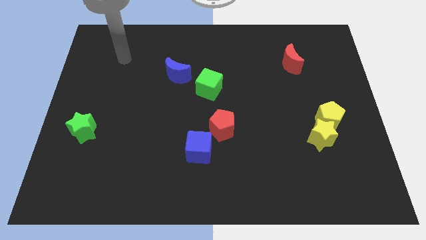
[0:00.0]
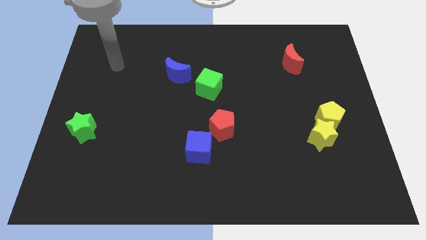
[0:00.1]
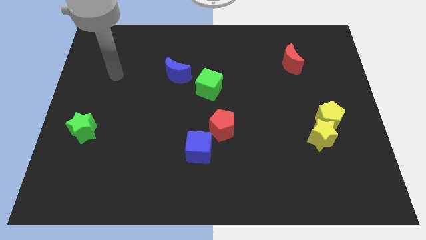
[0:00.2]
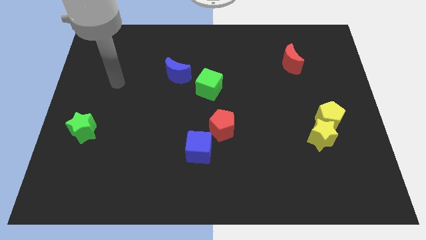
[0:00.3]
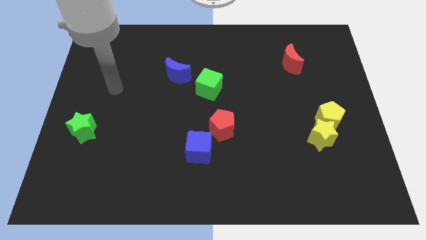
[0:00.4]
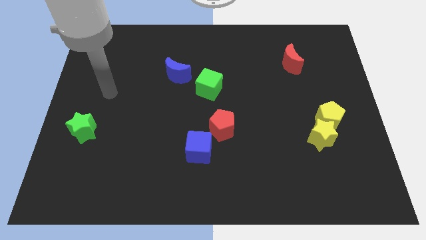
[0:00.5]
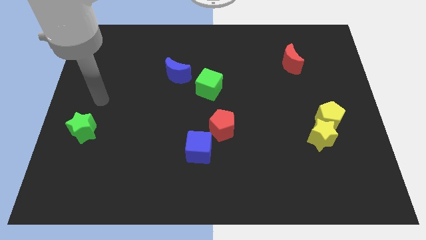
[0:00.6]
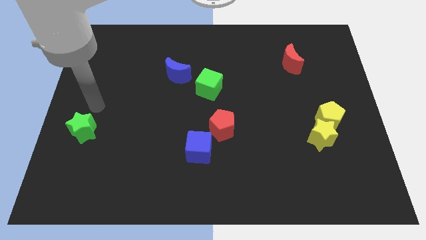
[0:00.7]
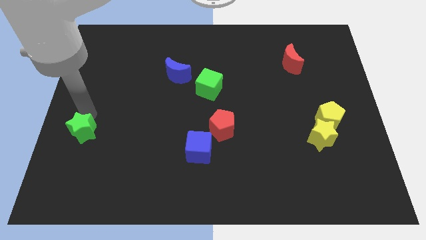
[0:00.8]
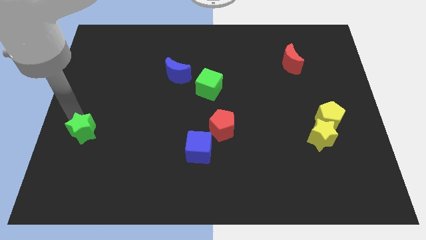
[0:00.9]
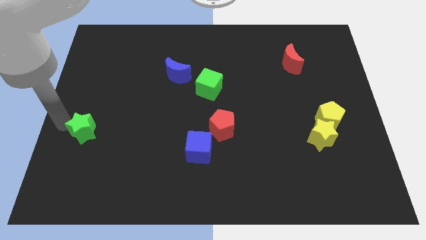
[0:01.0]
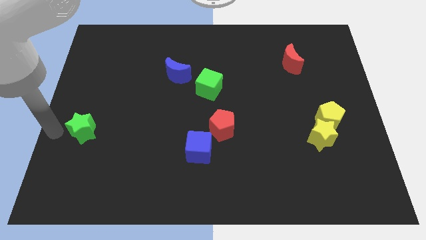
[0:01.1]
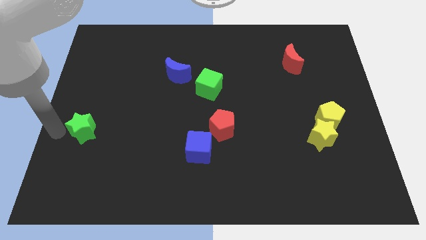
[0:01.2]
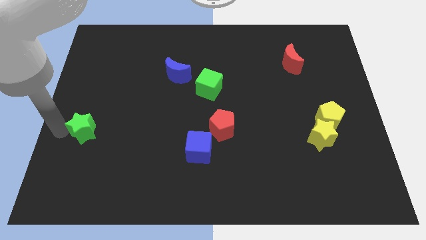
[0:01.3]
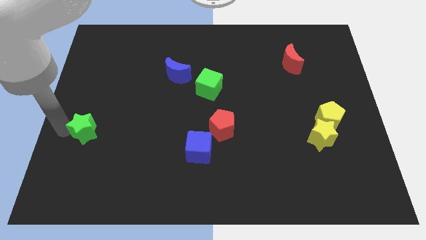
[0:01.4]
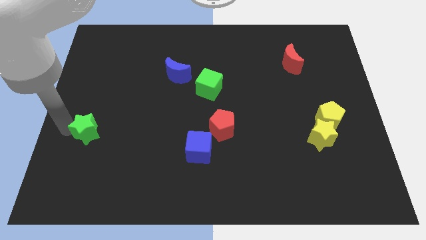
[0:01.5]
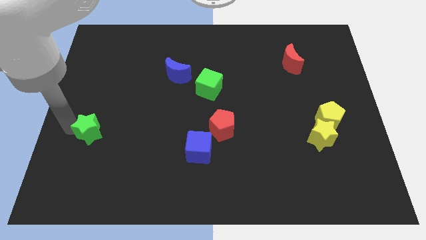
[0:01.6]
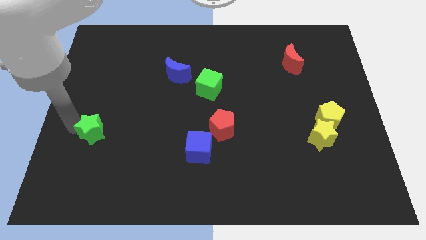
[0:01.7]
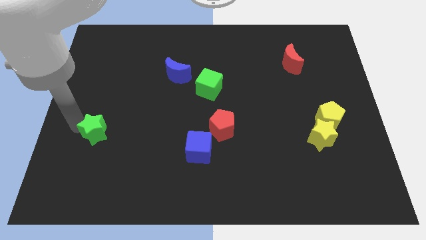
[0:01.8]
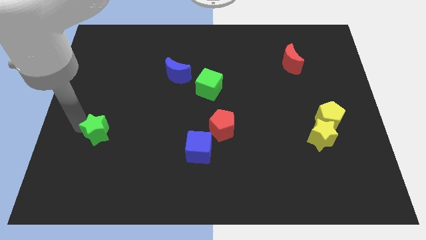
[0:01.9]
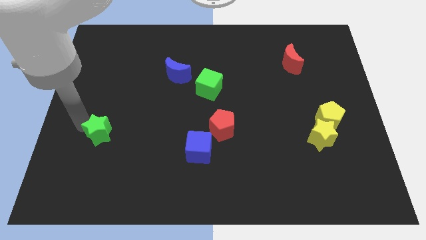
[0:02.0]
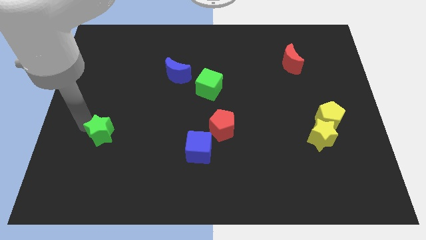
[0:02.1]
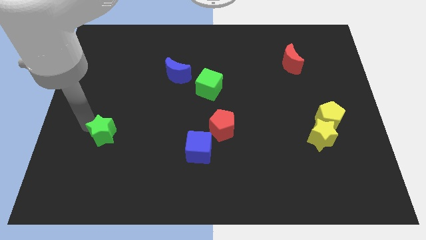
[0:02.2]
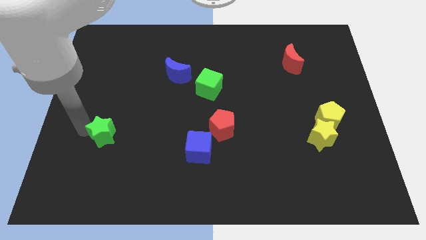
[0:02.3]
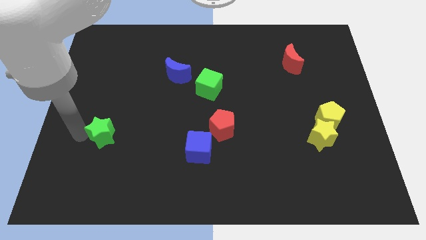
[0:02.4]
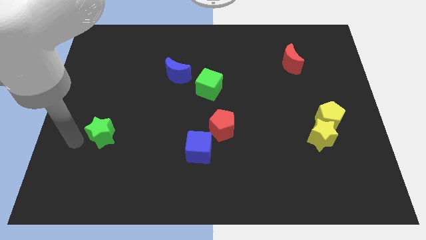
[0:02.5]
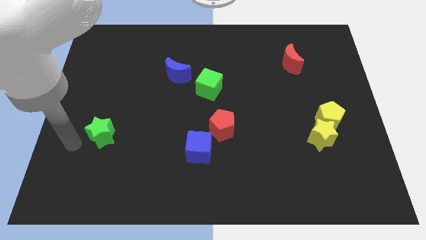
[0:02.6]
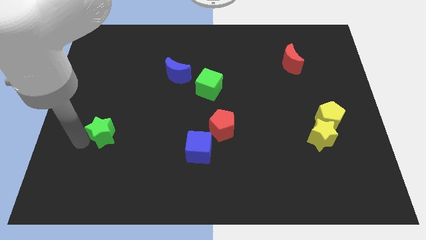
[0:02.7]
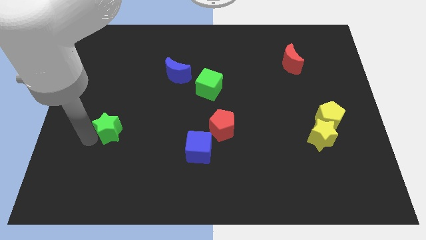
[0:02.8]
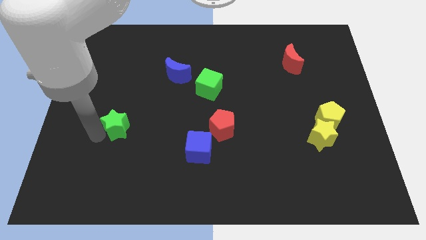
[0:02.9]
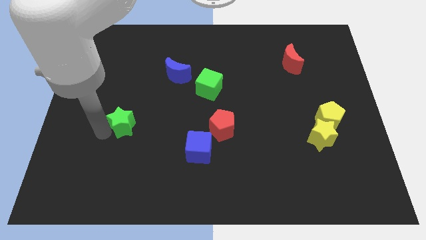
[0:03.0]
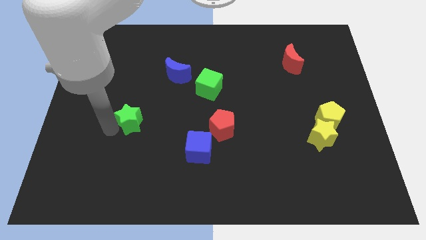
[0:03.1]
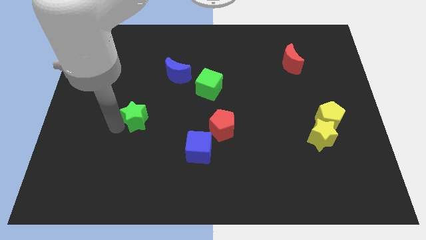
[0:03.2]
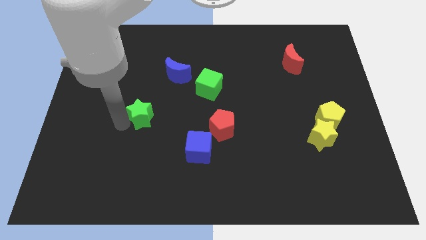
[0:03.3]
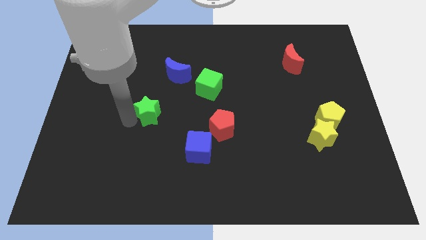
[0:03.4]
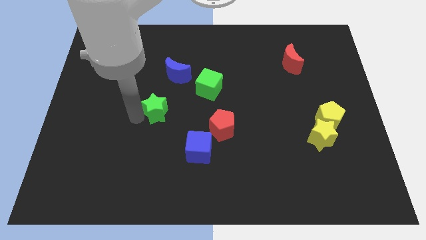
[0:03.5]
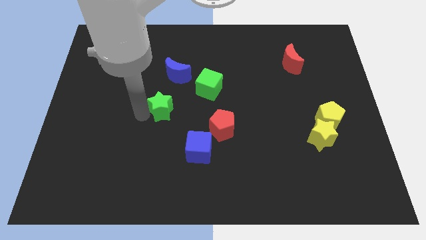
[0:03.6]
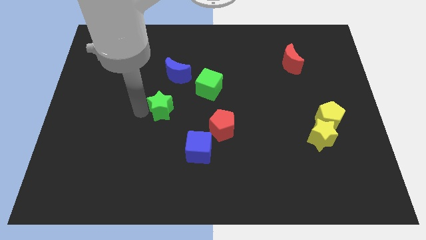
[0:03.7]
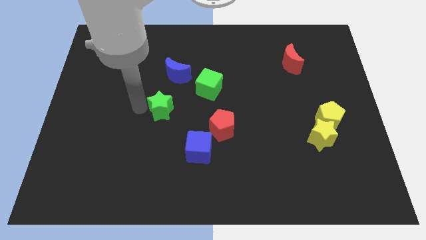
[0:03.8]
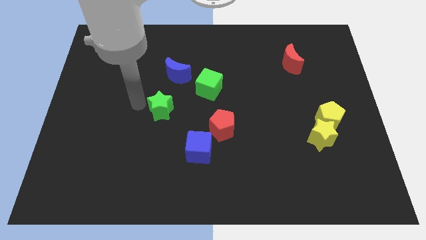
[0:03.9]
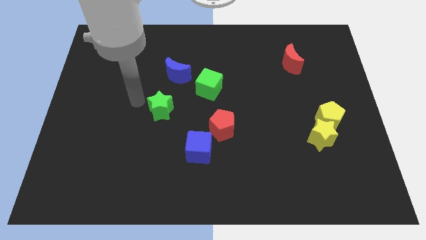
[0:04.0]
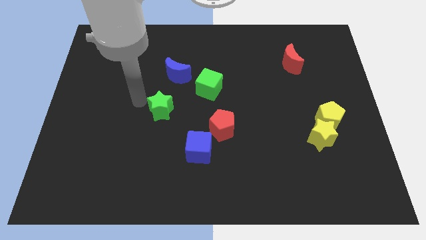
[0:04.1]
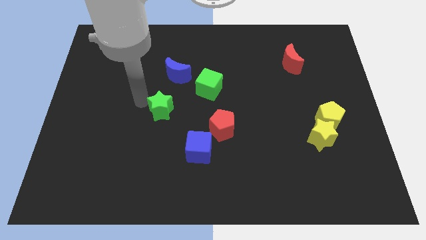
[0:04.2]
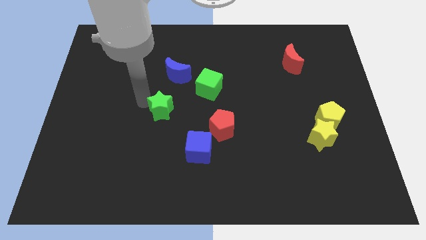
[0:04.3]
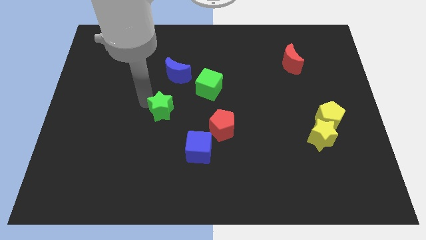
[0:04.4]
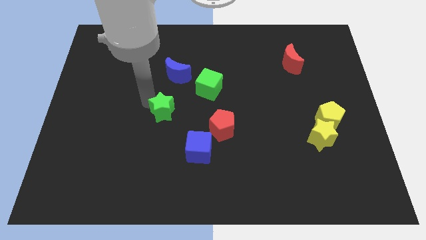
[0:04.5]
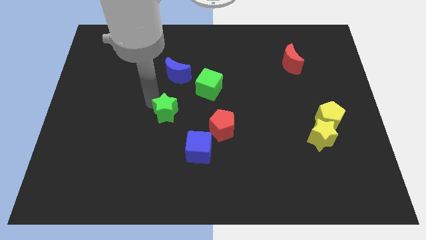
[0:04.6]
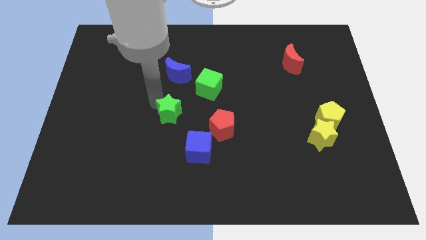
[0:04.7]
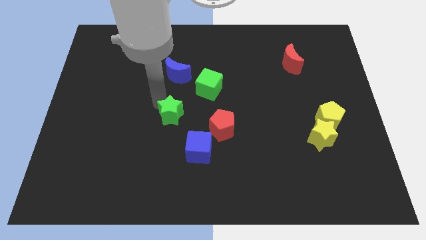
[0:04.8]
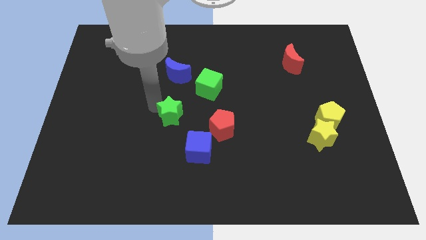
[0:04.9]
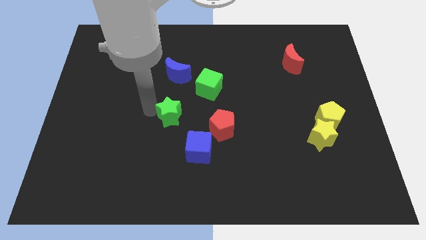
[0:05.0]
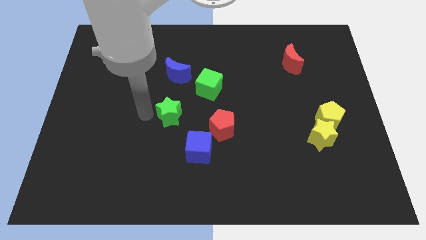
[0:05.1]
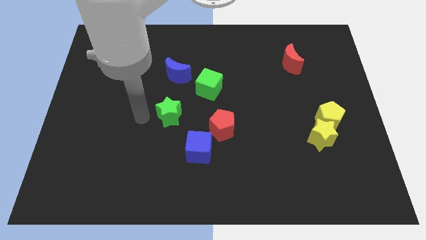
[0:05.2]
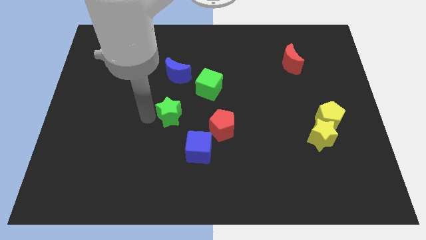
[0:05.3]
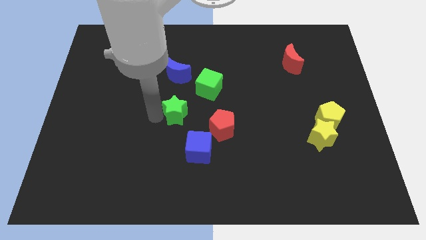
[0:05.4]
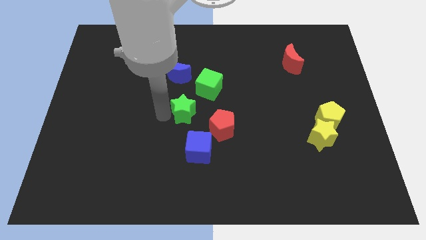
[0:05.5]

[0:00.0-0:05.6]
slide the green star to the top of the blue cube

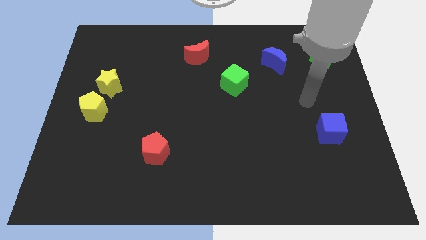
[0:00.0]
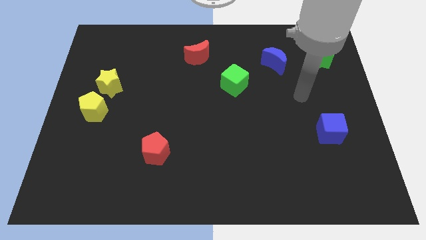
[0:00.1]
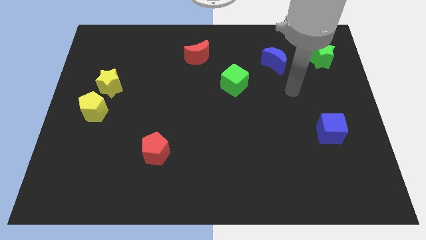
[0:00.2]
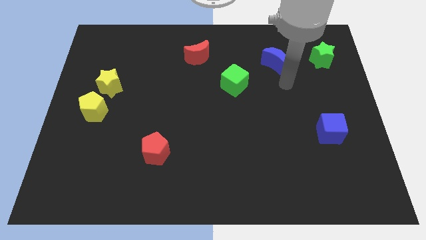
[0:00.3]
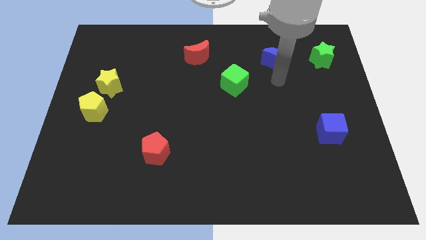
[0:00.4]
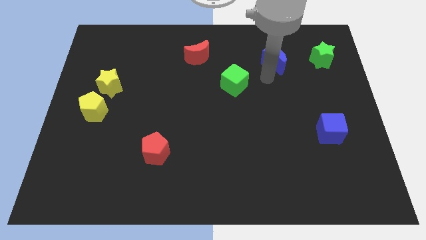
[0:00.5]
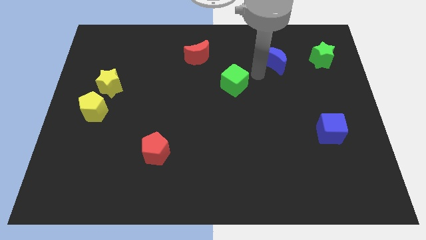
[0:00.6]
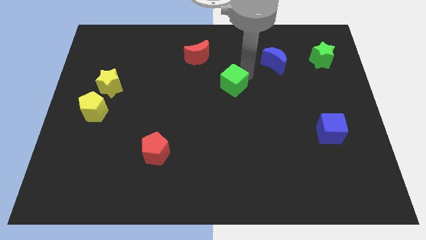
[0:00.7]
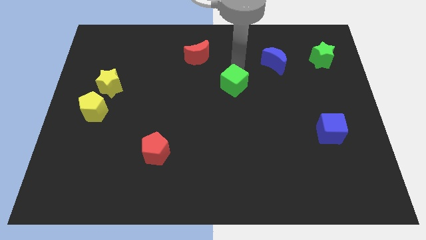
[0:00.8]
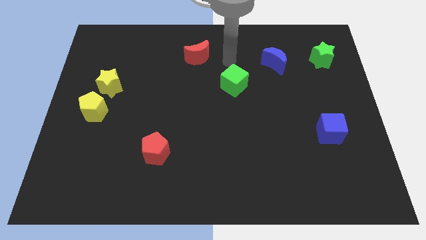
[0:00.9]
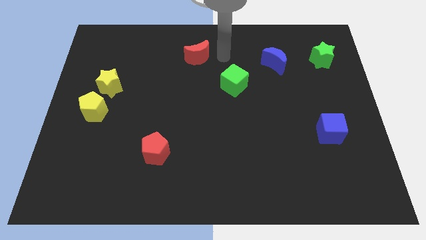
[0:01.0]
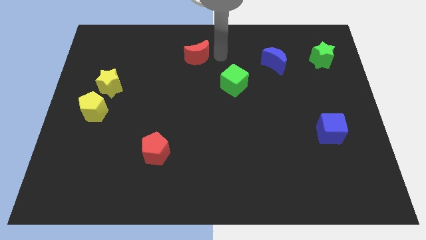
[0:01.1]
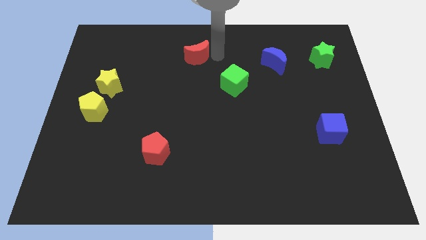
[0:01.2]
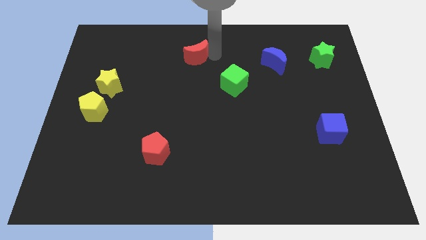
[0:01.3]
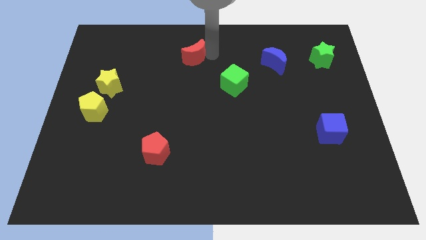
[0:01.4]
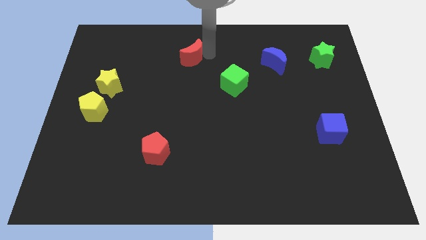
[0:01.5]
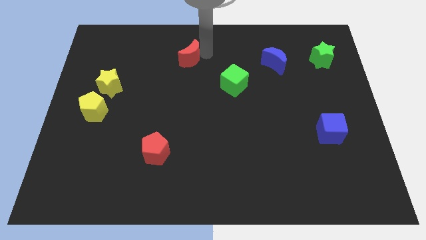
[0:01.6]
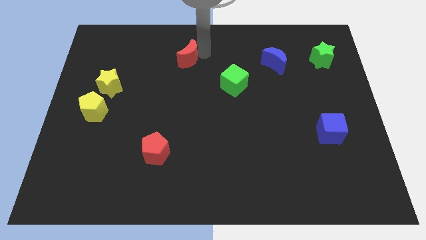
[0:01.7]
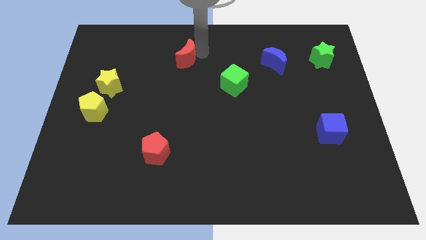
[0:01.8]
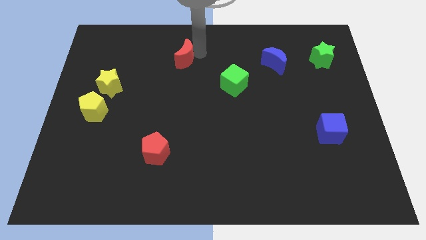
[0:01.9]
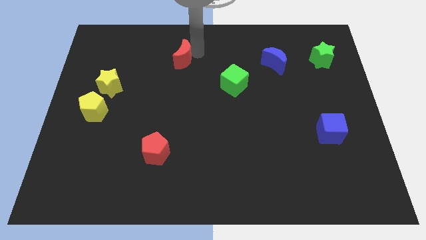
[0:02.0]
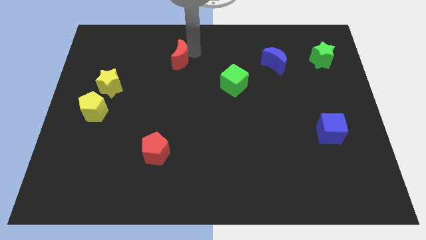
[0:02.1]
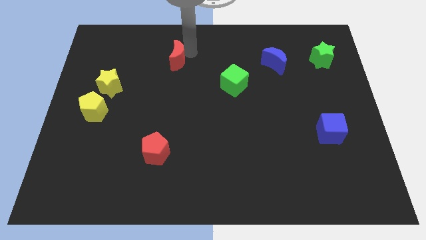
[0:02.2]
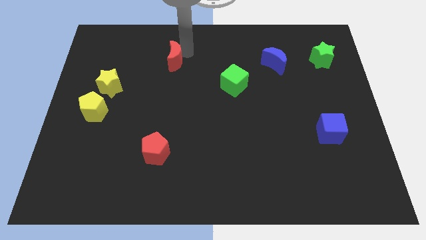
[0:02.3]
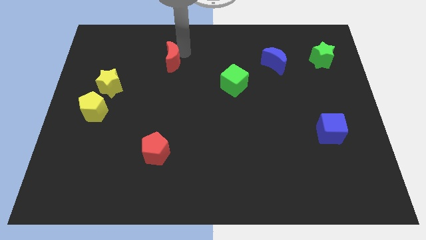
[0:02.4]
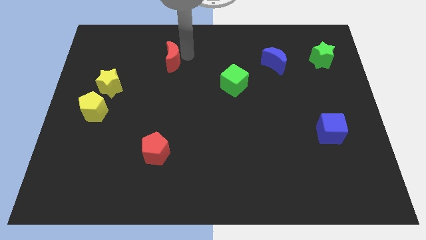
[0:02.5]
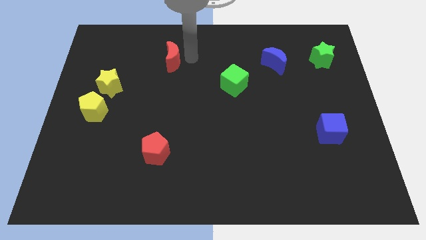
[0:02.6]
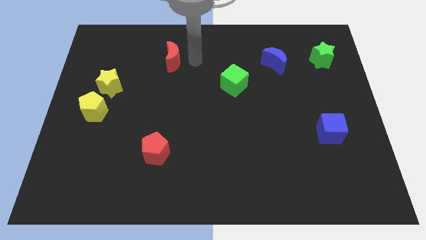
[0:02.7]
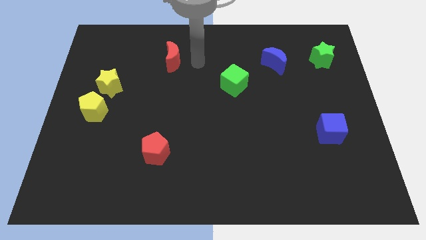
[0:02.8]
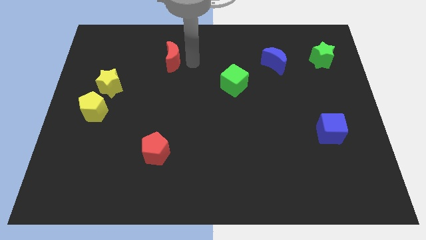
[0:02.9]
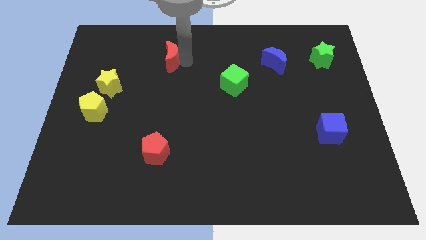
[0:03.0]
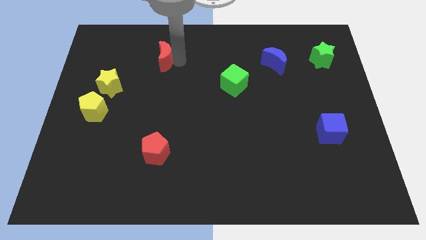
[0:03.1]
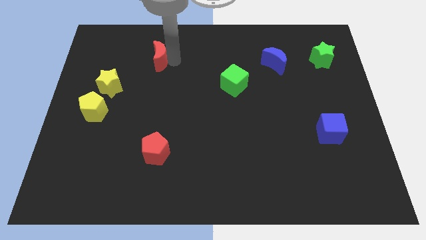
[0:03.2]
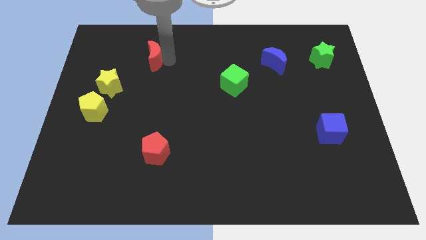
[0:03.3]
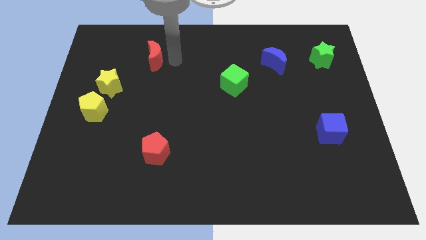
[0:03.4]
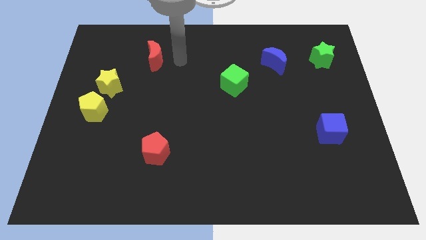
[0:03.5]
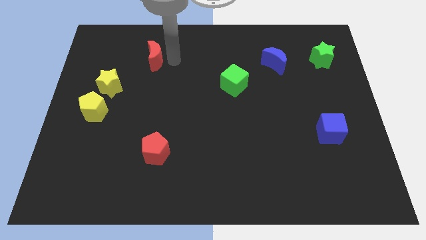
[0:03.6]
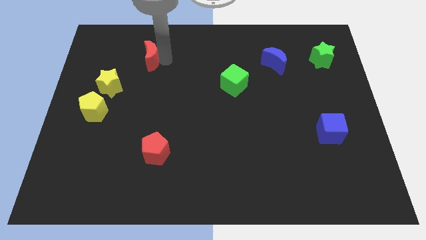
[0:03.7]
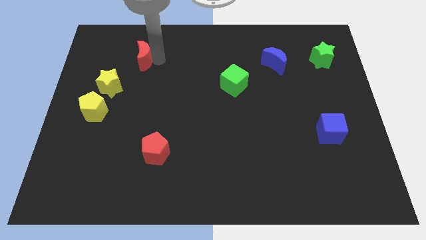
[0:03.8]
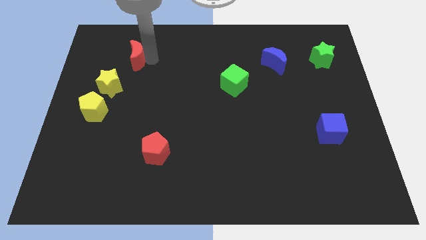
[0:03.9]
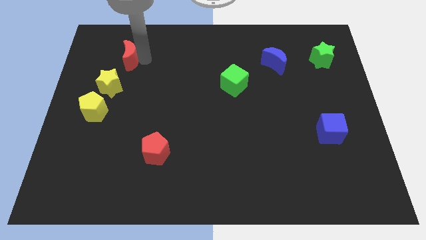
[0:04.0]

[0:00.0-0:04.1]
move the red moon to the top side of the yellow star
